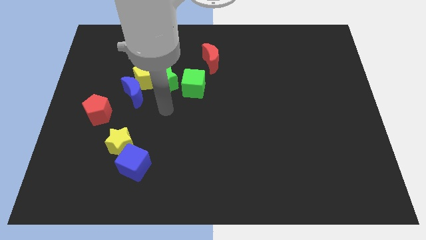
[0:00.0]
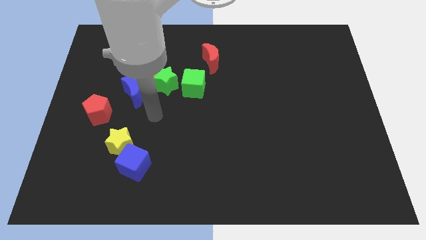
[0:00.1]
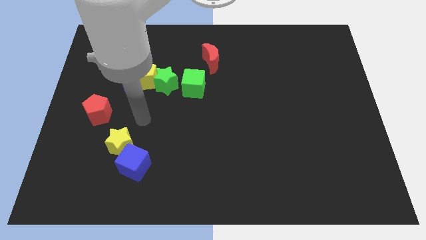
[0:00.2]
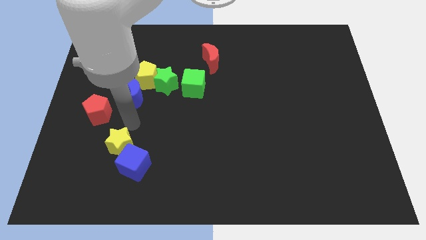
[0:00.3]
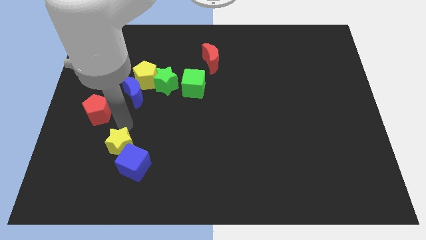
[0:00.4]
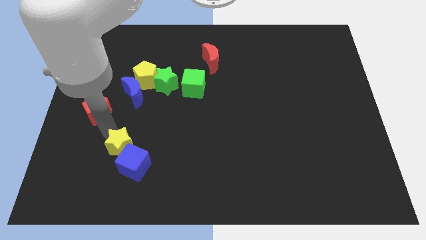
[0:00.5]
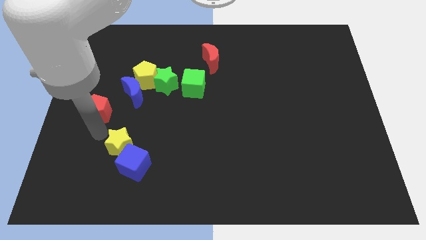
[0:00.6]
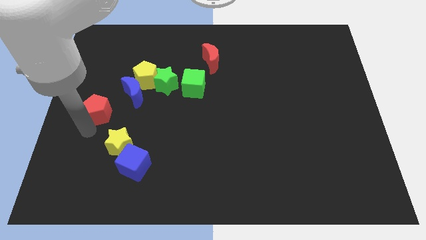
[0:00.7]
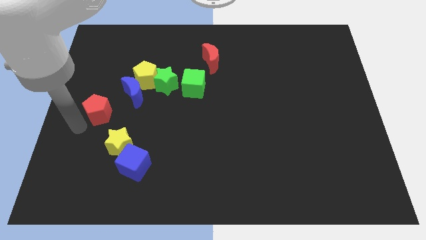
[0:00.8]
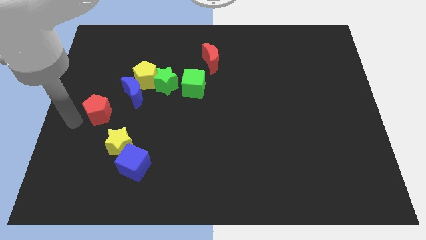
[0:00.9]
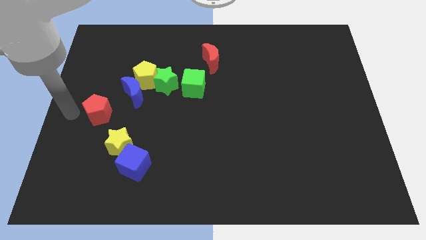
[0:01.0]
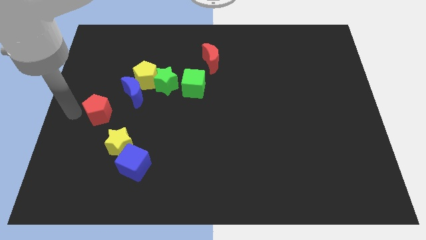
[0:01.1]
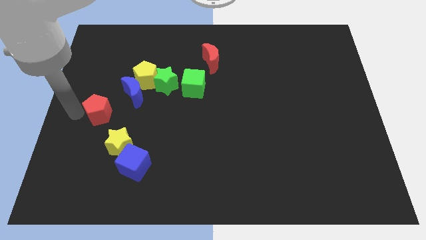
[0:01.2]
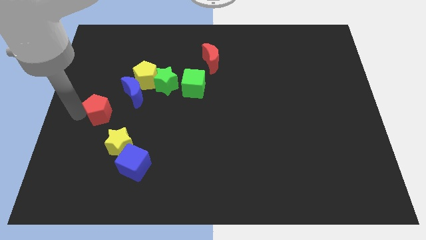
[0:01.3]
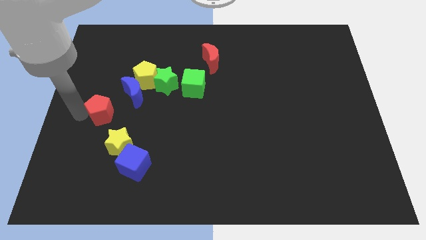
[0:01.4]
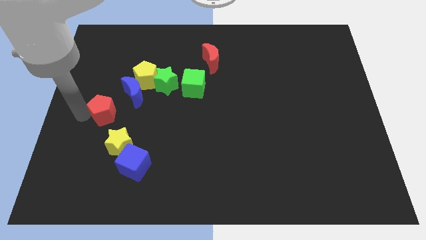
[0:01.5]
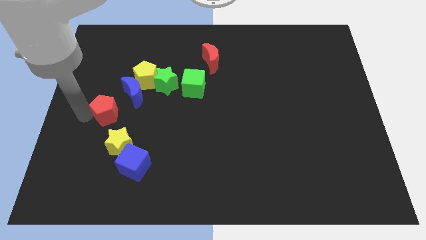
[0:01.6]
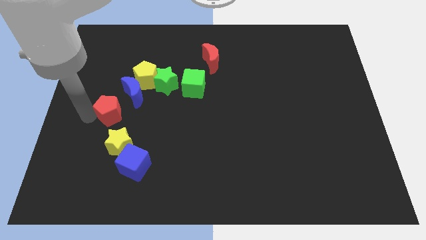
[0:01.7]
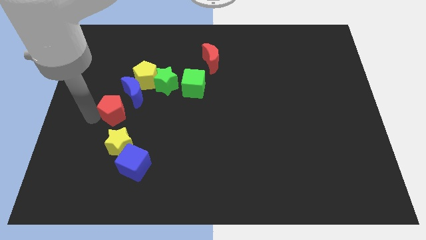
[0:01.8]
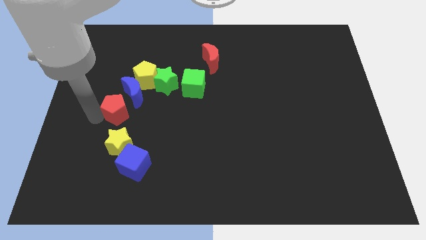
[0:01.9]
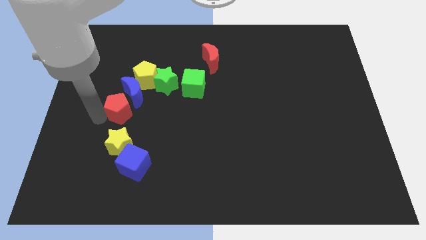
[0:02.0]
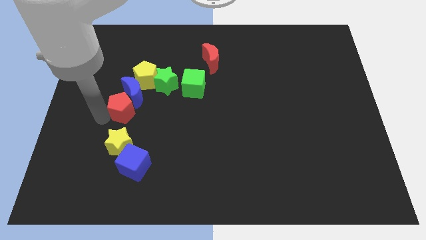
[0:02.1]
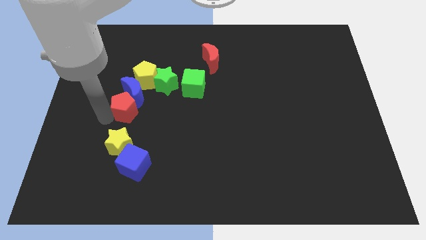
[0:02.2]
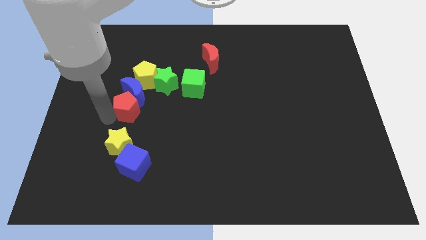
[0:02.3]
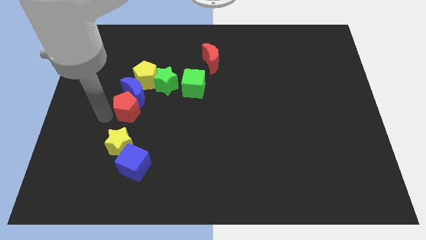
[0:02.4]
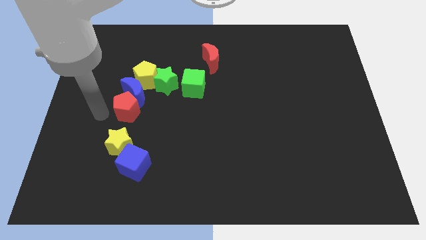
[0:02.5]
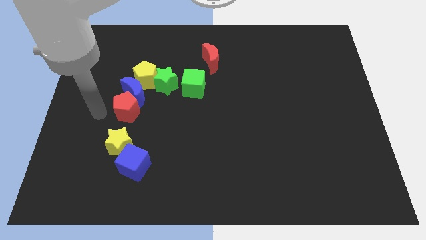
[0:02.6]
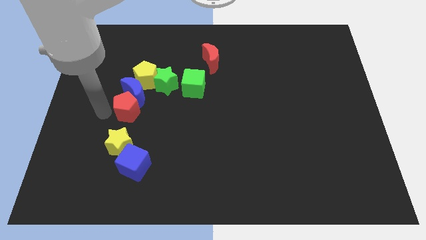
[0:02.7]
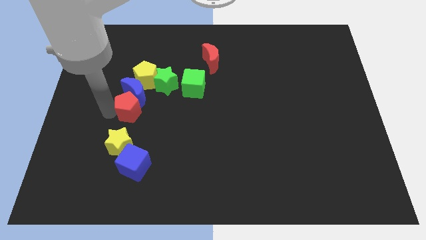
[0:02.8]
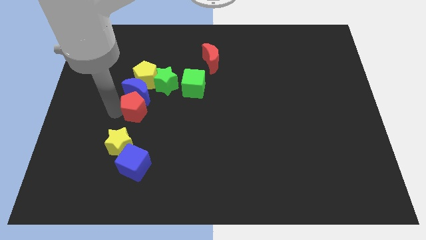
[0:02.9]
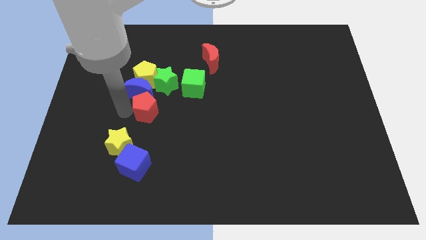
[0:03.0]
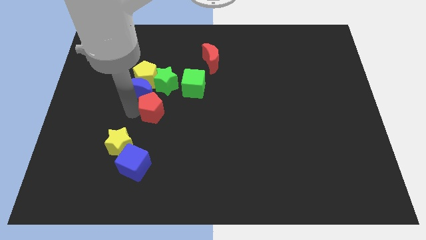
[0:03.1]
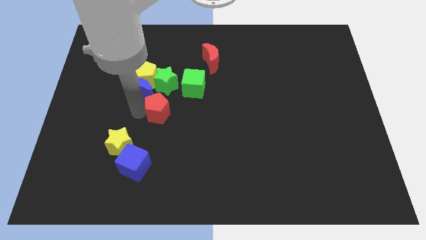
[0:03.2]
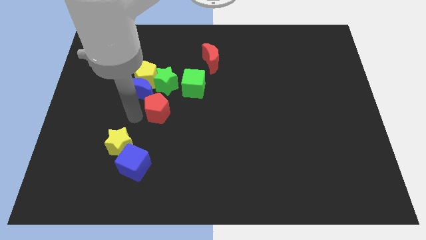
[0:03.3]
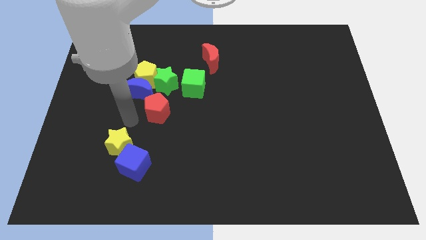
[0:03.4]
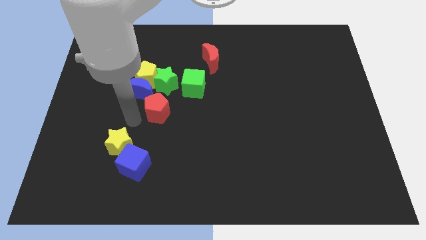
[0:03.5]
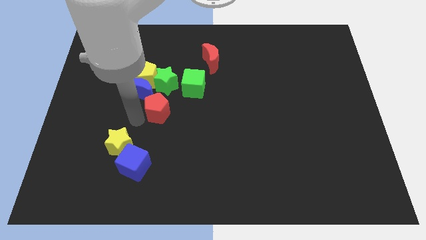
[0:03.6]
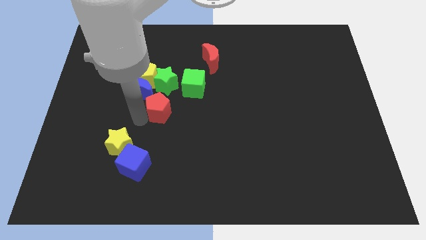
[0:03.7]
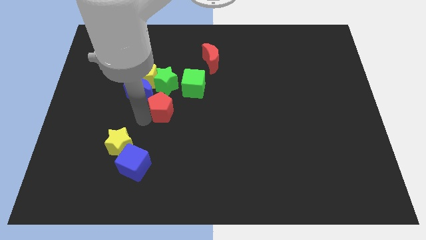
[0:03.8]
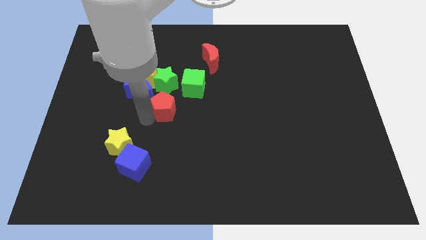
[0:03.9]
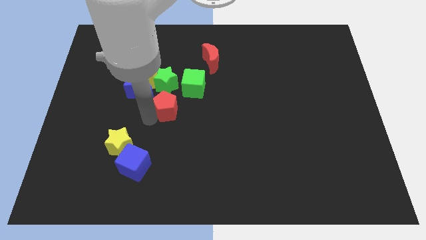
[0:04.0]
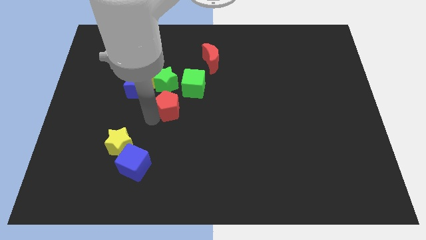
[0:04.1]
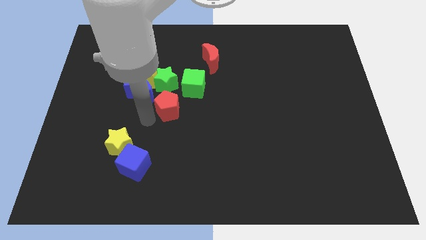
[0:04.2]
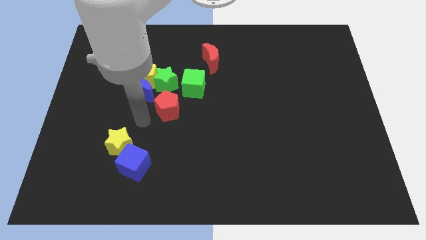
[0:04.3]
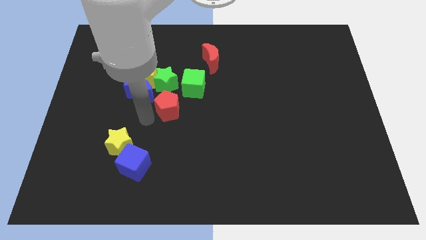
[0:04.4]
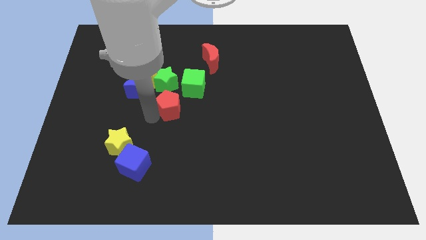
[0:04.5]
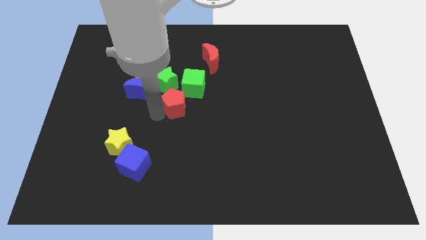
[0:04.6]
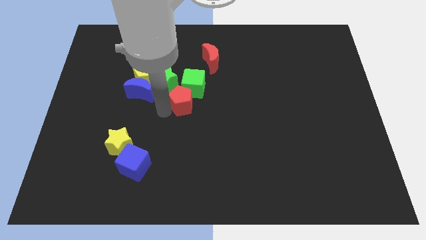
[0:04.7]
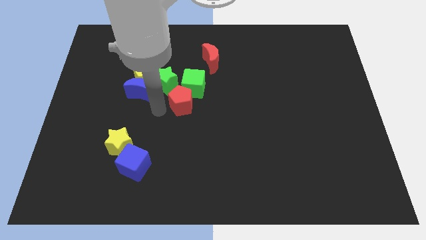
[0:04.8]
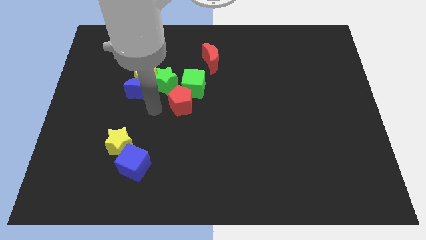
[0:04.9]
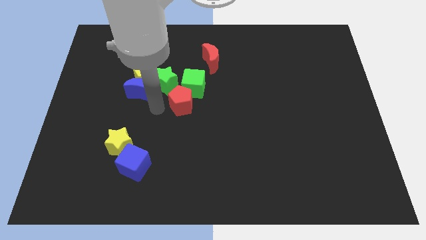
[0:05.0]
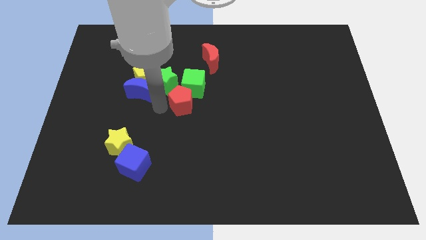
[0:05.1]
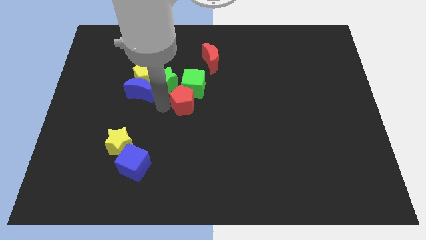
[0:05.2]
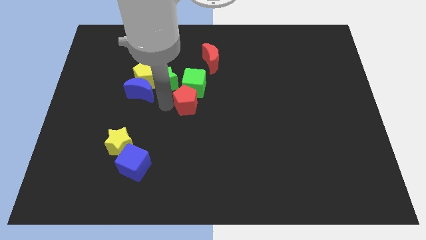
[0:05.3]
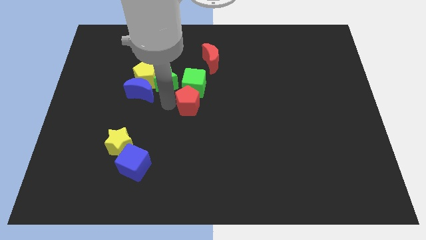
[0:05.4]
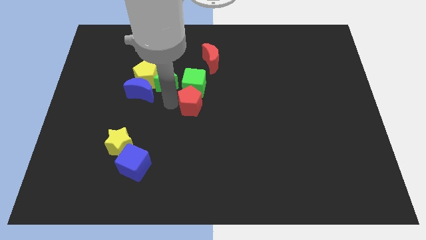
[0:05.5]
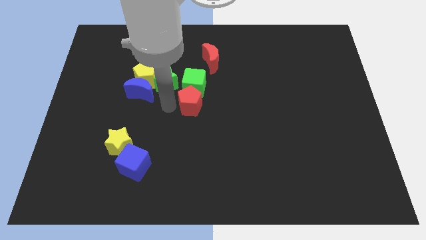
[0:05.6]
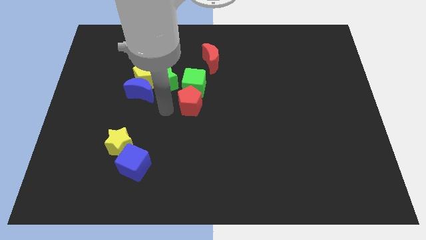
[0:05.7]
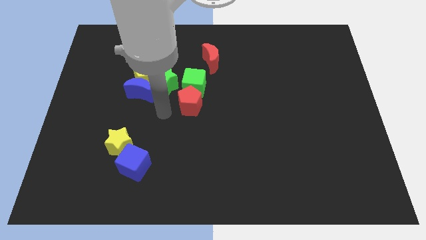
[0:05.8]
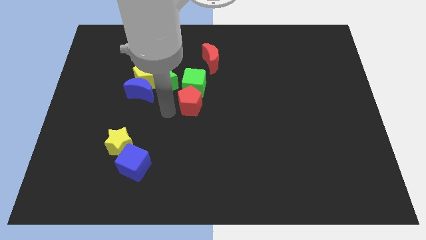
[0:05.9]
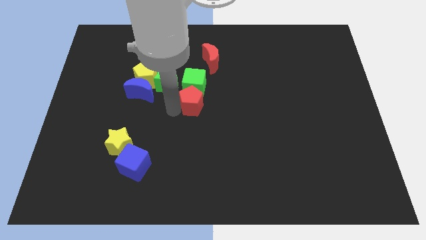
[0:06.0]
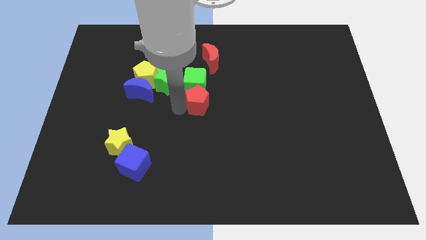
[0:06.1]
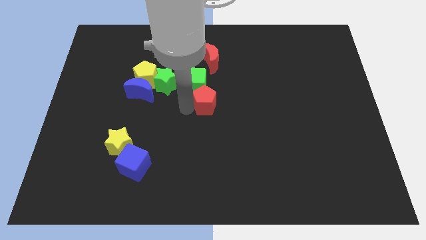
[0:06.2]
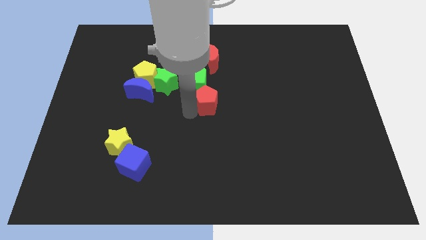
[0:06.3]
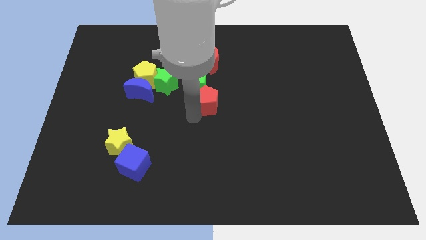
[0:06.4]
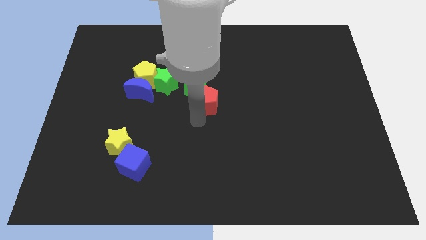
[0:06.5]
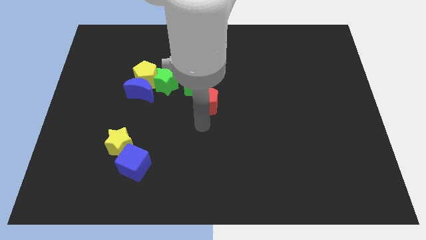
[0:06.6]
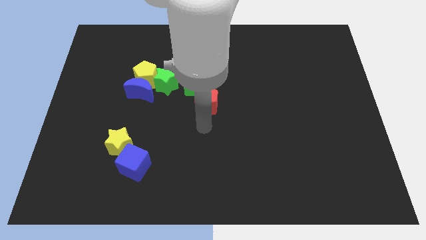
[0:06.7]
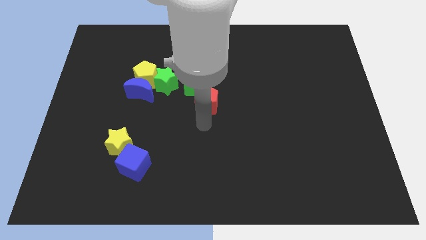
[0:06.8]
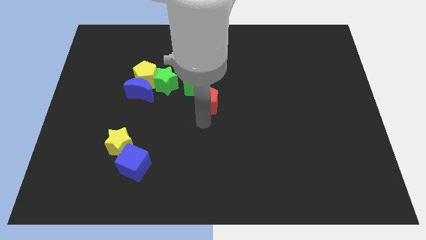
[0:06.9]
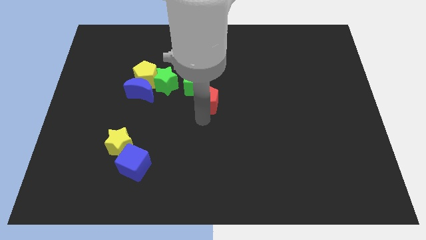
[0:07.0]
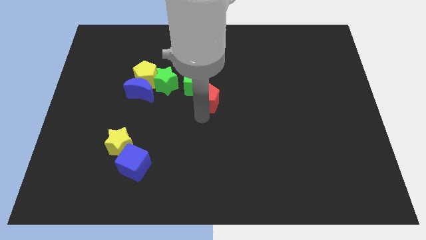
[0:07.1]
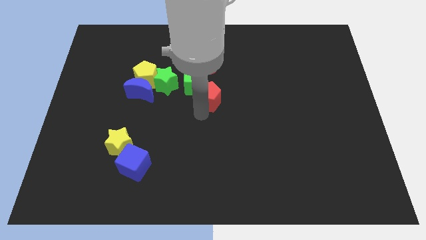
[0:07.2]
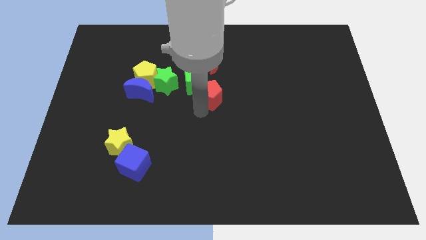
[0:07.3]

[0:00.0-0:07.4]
move the red pentagon to the right side of the green star
